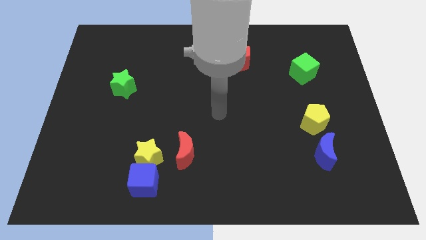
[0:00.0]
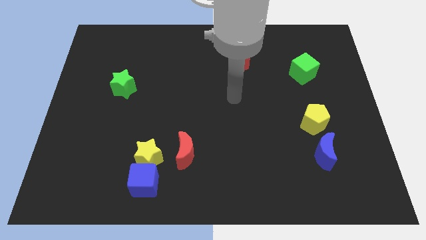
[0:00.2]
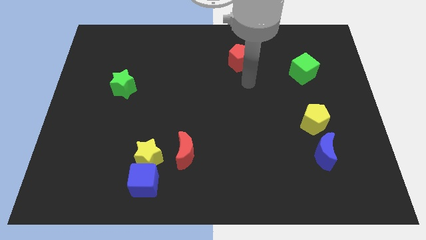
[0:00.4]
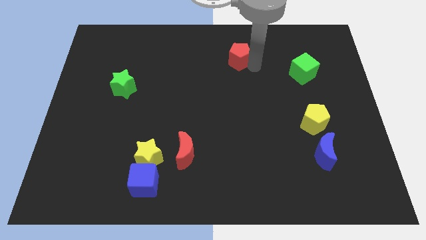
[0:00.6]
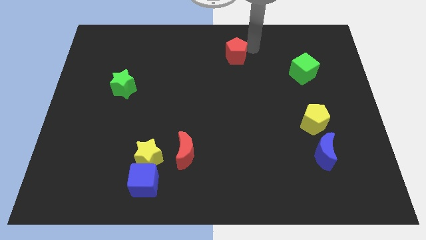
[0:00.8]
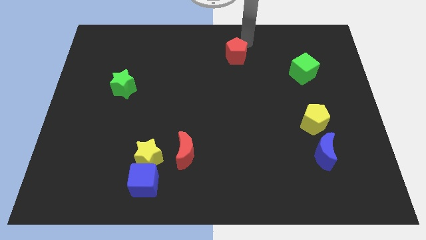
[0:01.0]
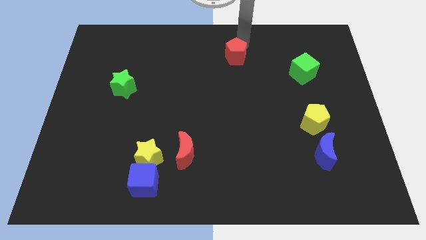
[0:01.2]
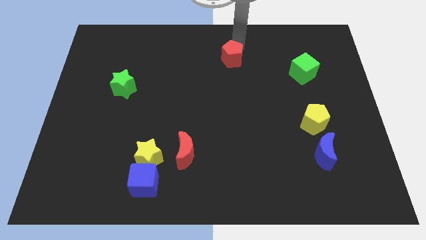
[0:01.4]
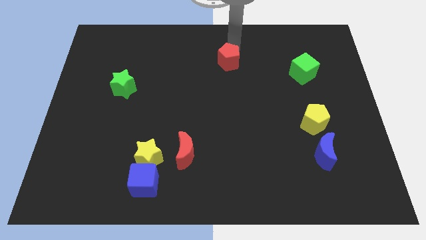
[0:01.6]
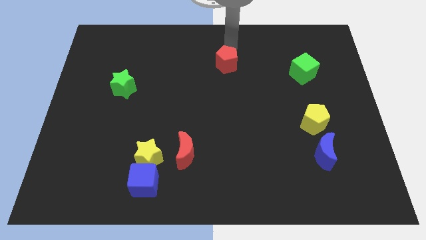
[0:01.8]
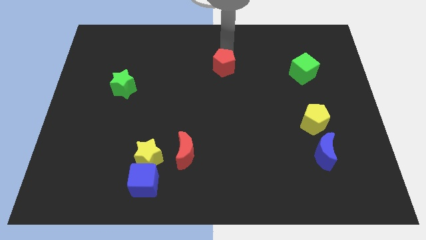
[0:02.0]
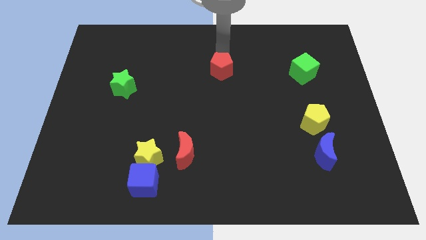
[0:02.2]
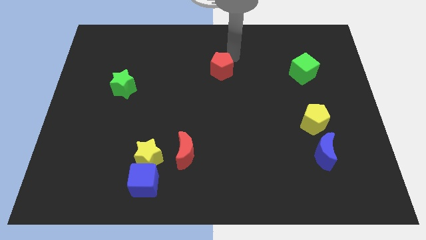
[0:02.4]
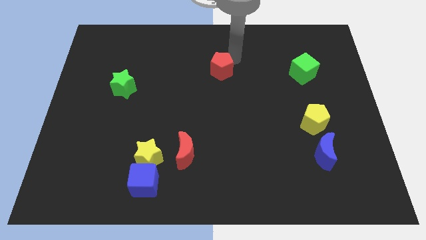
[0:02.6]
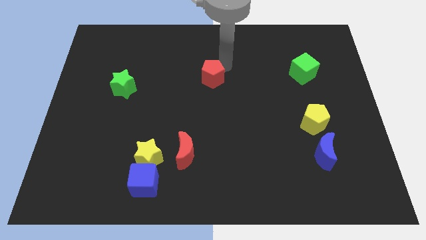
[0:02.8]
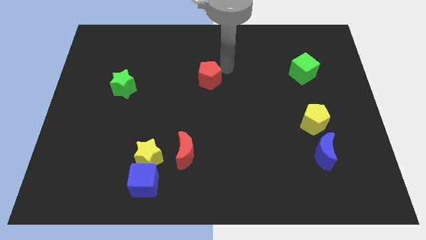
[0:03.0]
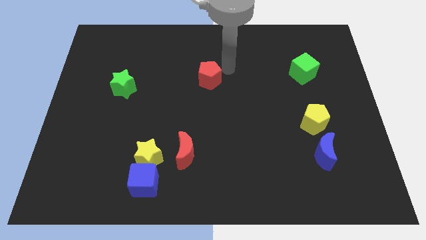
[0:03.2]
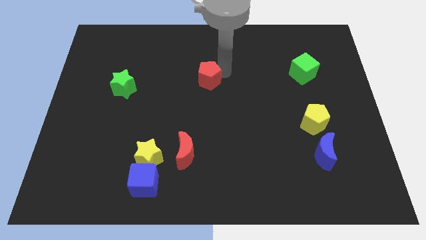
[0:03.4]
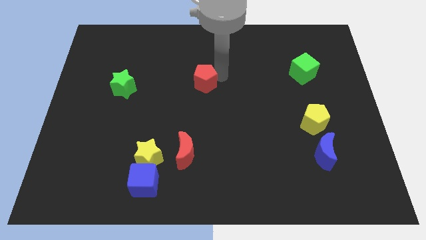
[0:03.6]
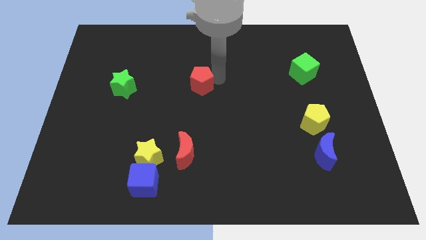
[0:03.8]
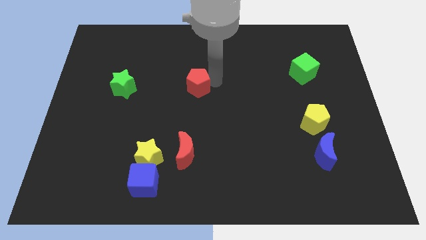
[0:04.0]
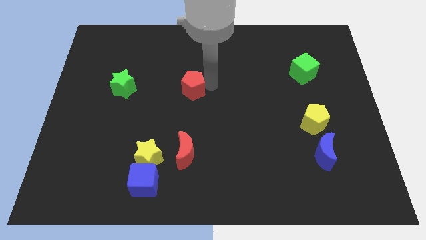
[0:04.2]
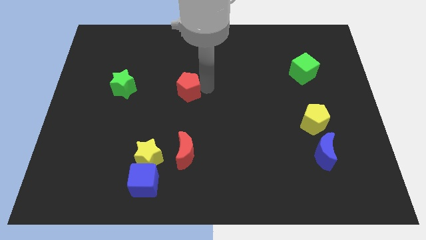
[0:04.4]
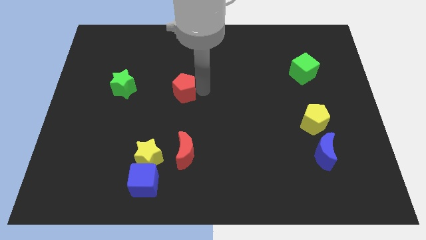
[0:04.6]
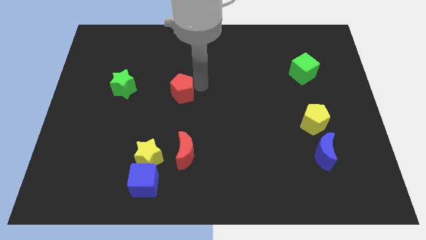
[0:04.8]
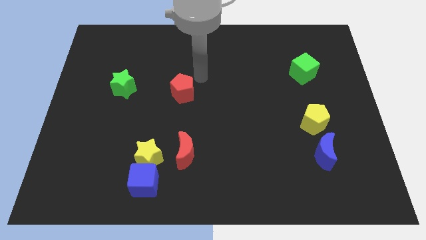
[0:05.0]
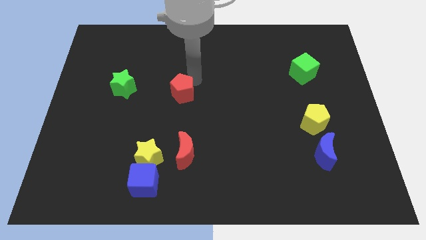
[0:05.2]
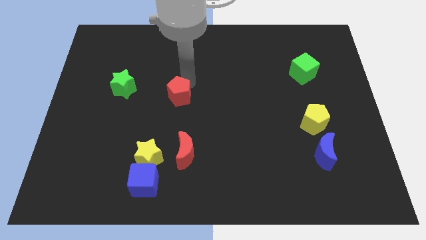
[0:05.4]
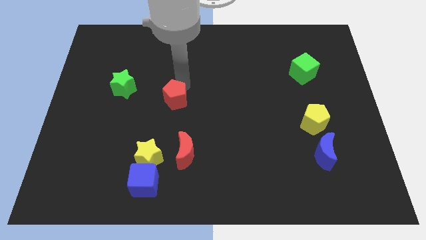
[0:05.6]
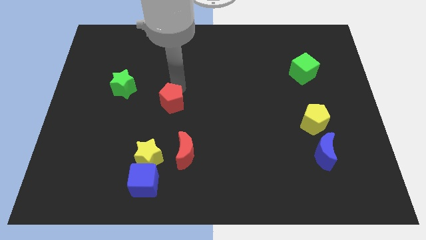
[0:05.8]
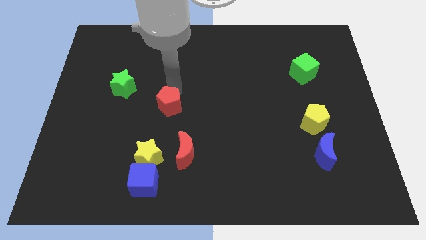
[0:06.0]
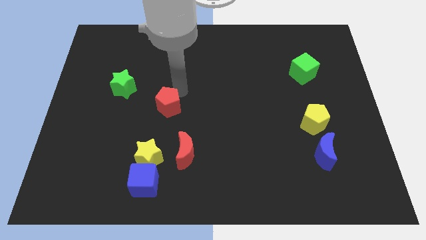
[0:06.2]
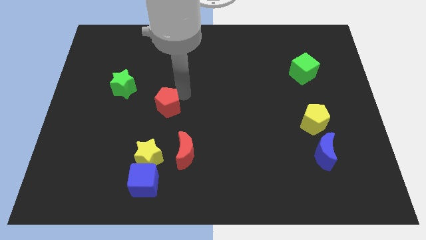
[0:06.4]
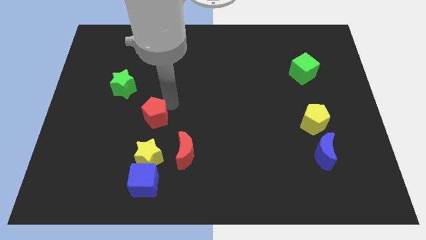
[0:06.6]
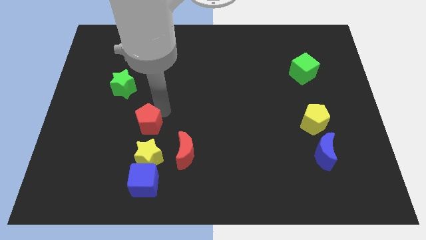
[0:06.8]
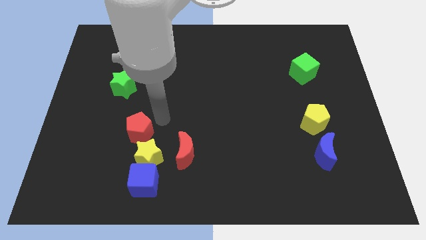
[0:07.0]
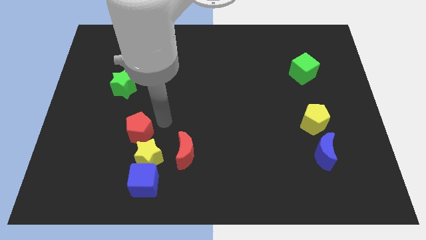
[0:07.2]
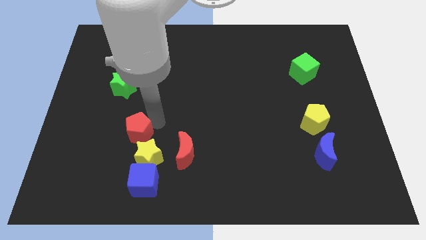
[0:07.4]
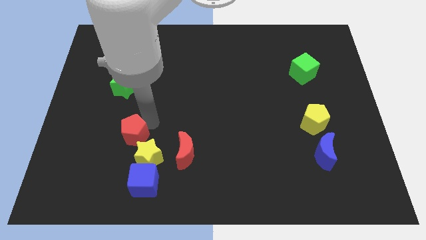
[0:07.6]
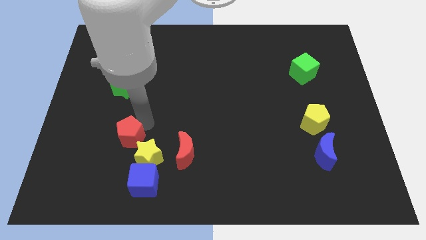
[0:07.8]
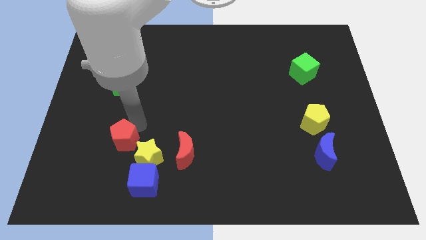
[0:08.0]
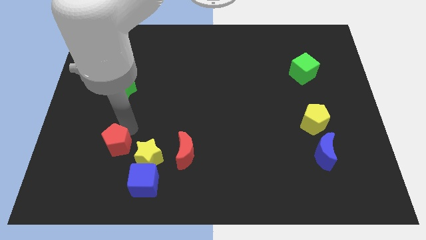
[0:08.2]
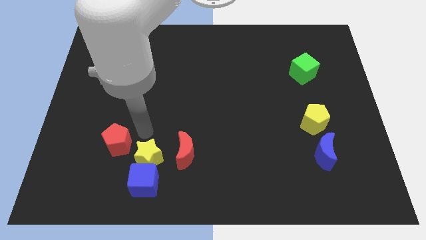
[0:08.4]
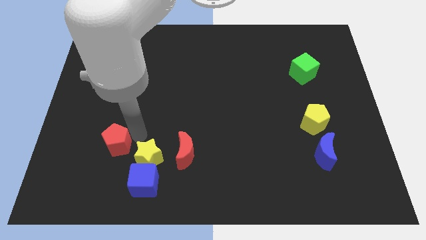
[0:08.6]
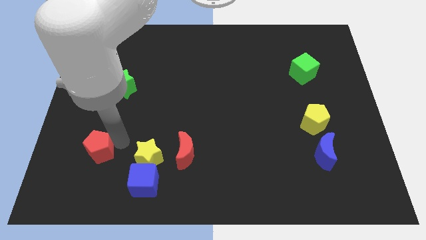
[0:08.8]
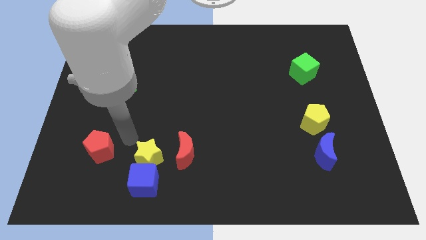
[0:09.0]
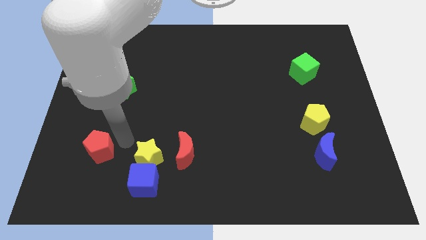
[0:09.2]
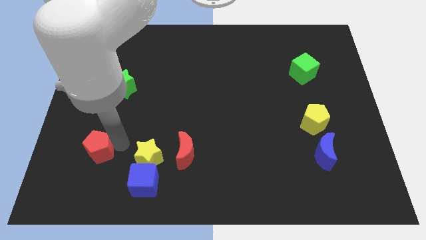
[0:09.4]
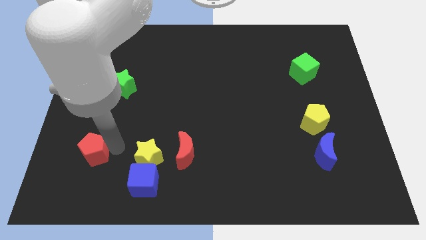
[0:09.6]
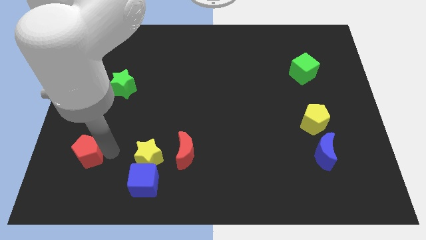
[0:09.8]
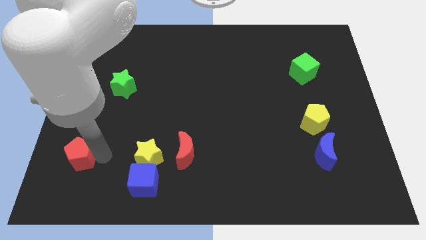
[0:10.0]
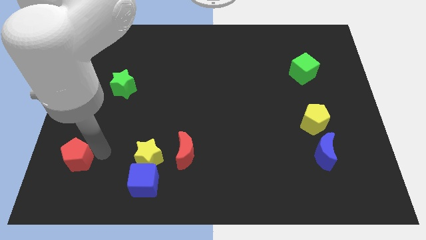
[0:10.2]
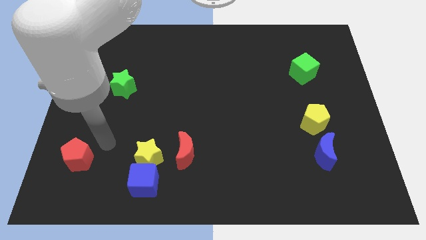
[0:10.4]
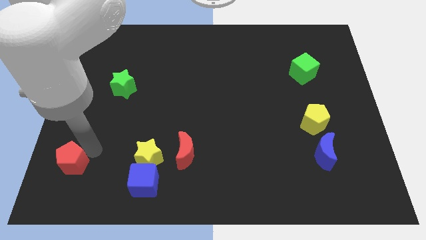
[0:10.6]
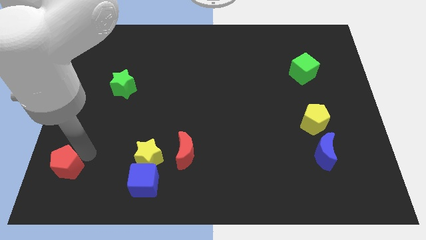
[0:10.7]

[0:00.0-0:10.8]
move the red pentagon to the bottom left corner
